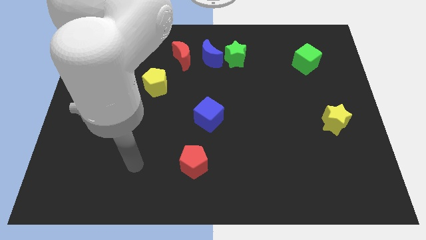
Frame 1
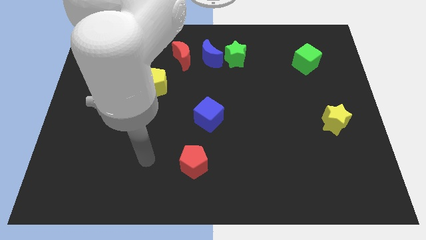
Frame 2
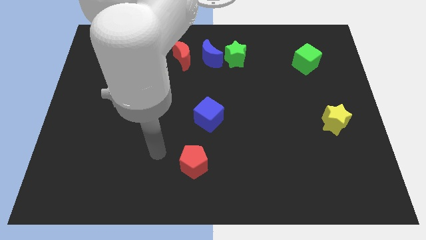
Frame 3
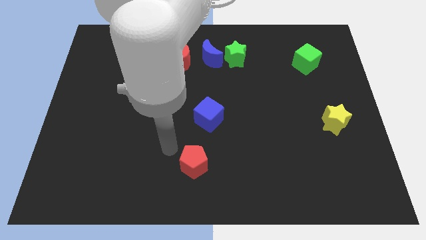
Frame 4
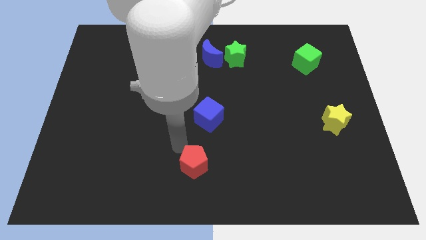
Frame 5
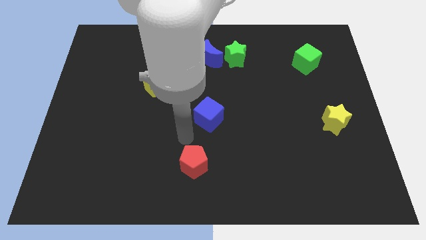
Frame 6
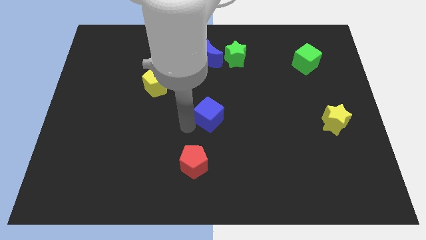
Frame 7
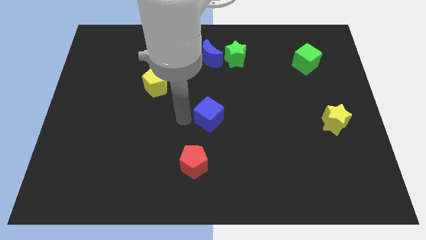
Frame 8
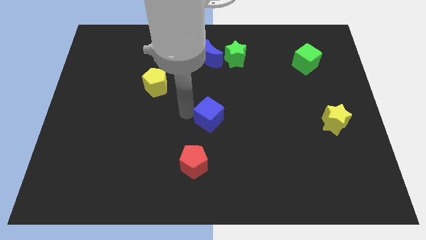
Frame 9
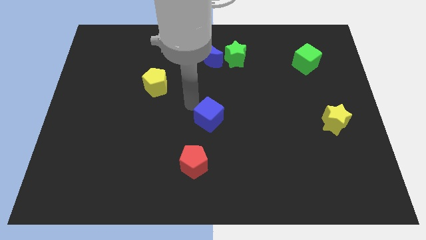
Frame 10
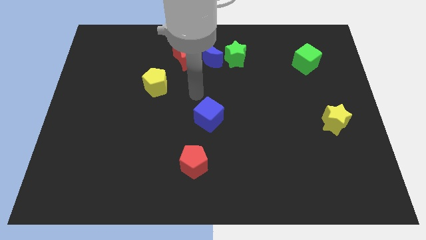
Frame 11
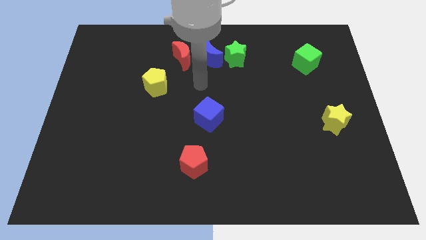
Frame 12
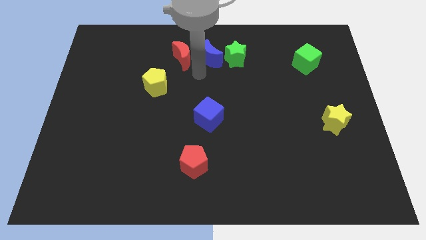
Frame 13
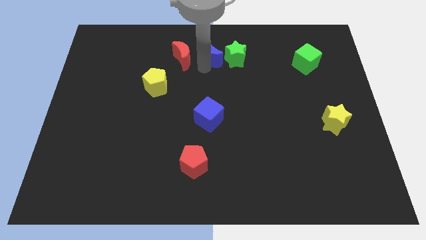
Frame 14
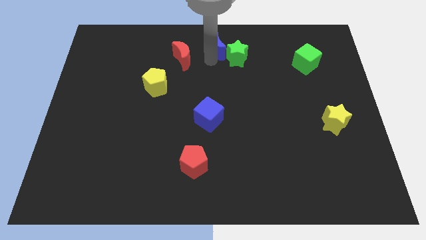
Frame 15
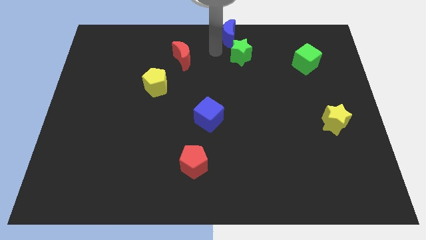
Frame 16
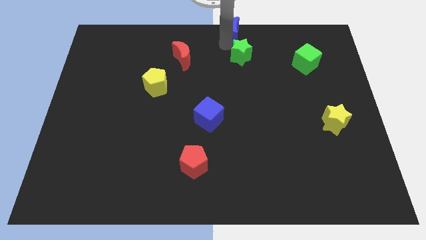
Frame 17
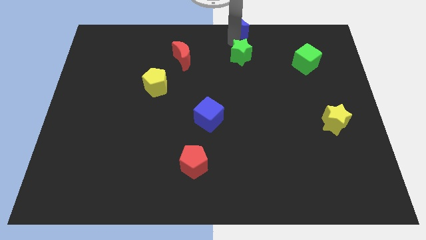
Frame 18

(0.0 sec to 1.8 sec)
move the green star away from the blue moon

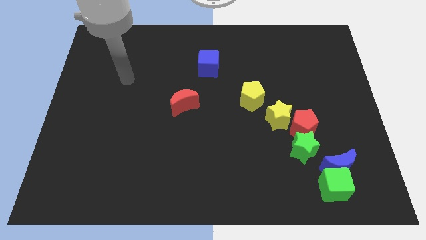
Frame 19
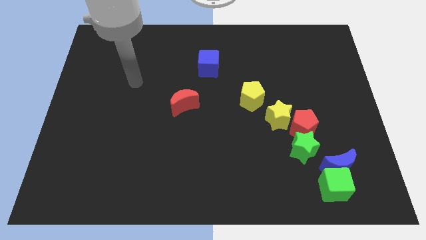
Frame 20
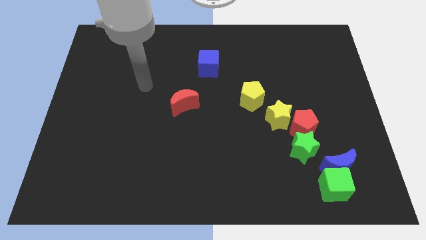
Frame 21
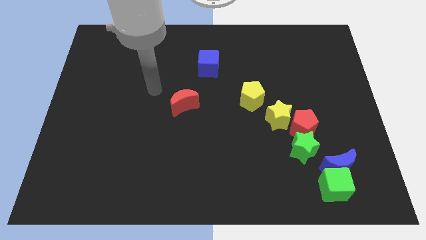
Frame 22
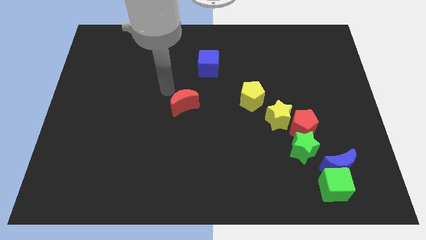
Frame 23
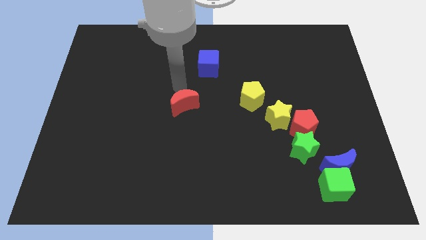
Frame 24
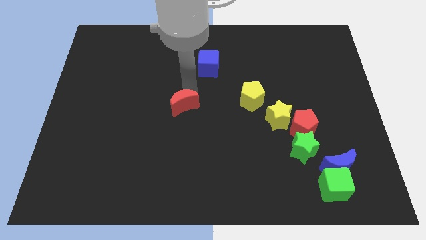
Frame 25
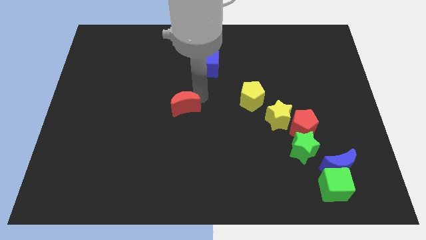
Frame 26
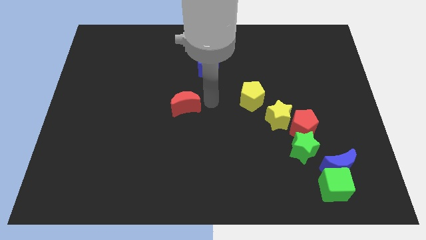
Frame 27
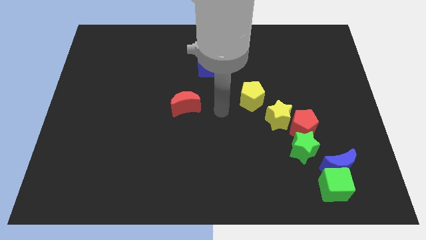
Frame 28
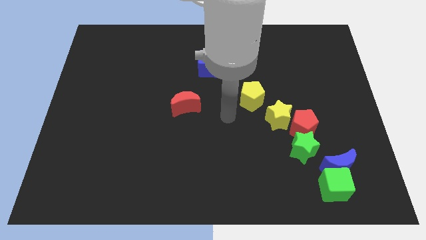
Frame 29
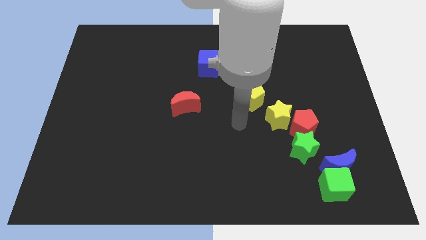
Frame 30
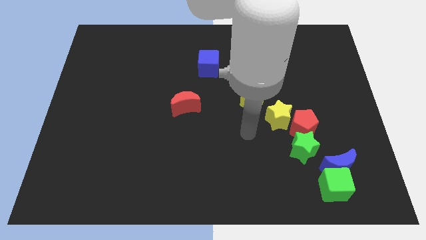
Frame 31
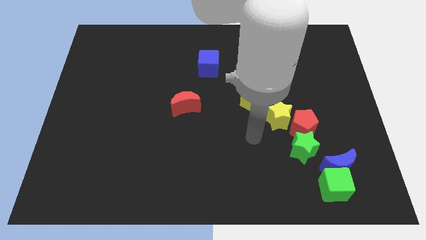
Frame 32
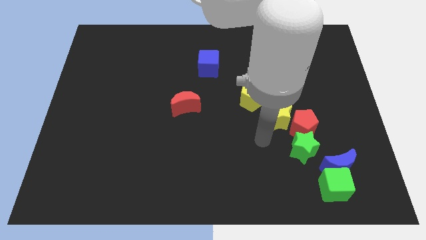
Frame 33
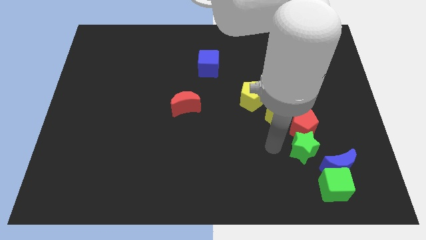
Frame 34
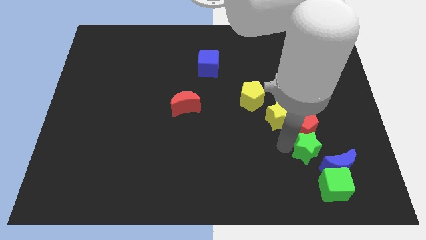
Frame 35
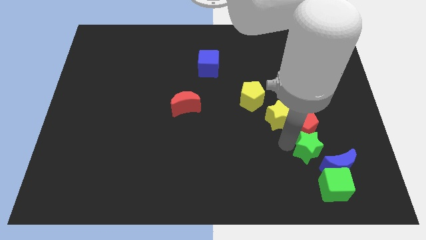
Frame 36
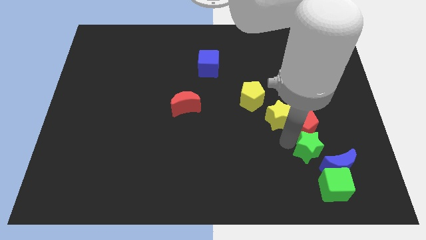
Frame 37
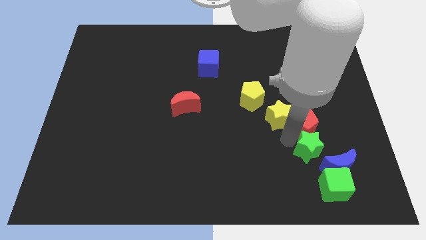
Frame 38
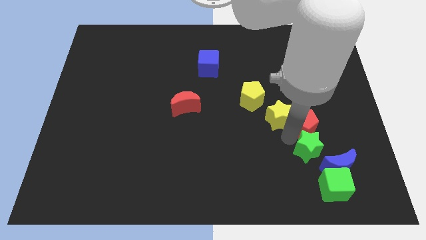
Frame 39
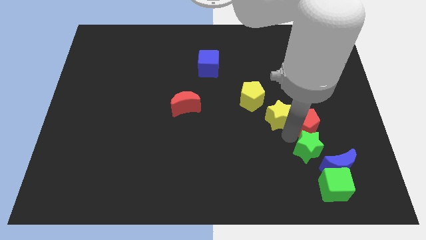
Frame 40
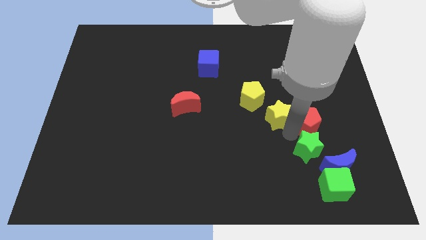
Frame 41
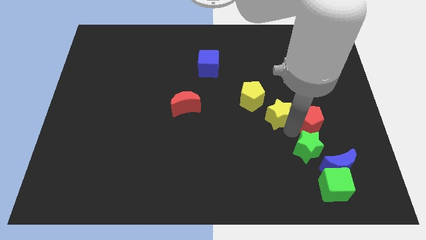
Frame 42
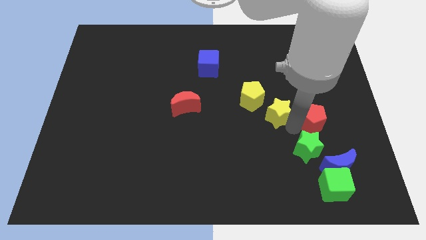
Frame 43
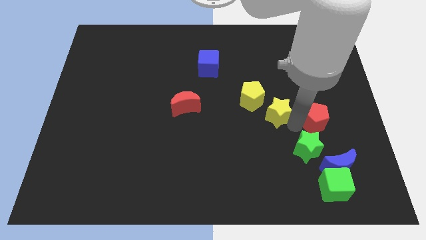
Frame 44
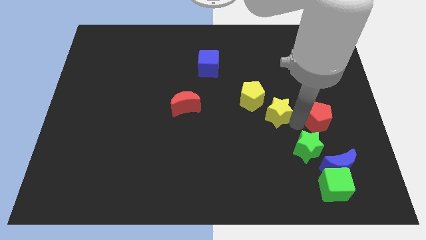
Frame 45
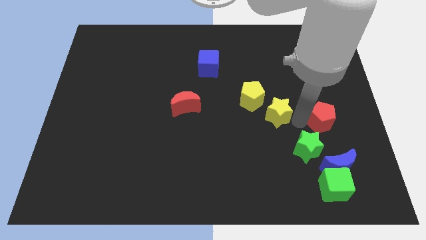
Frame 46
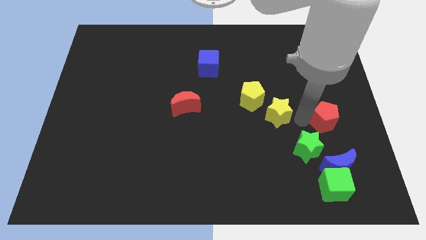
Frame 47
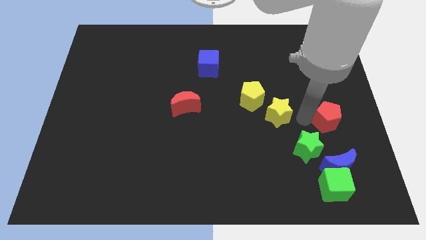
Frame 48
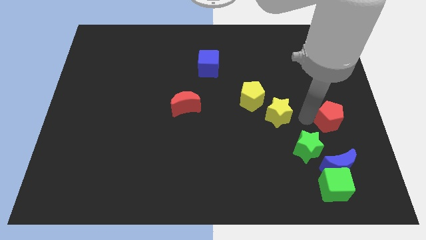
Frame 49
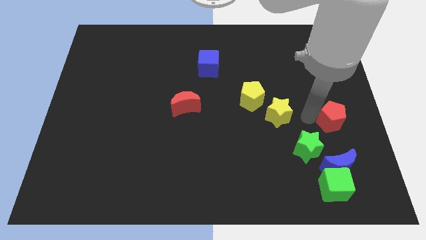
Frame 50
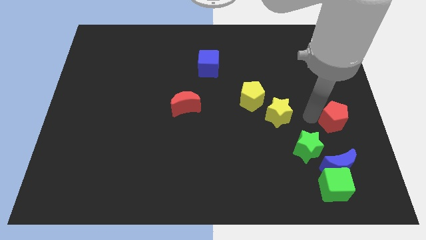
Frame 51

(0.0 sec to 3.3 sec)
separate the red pentagon from the yellow star and green star

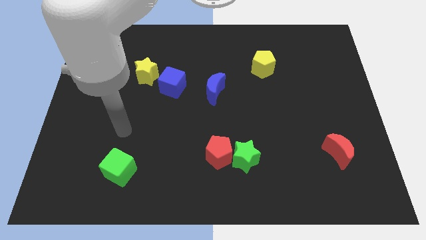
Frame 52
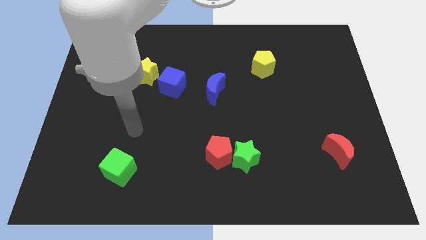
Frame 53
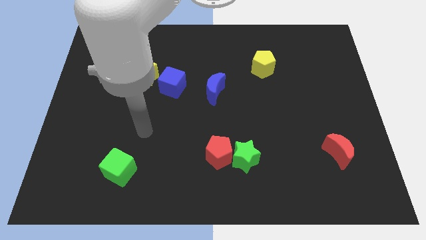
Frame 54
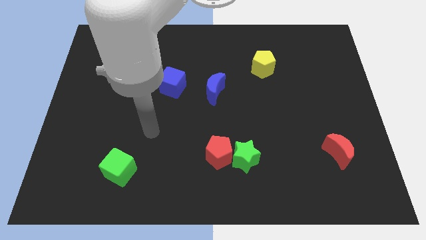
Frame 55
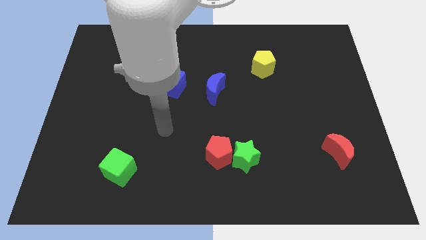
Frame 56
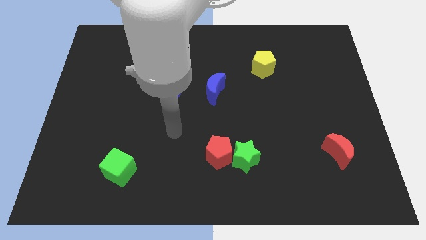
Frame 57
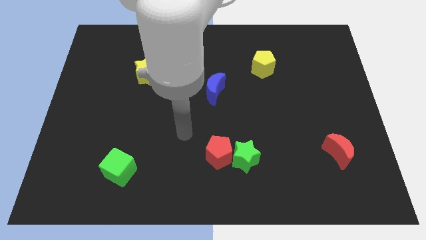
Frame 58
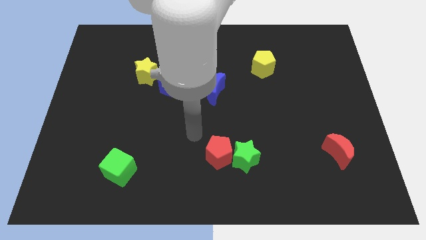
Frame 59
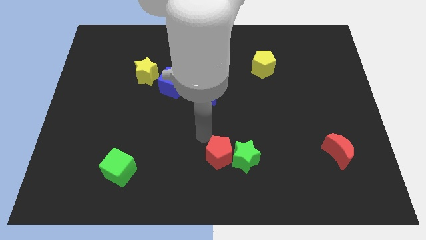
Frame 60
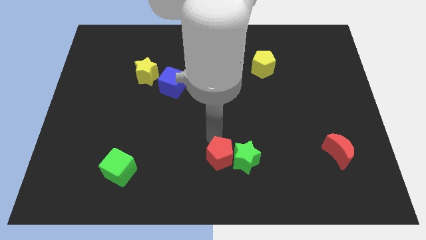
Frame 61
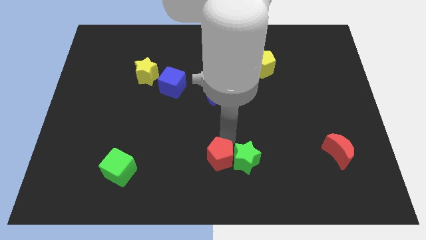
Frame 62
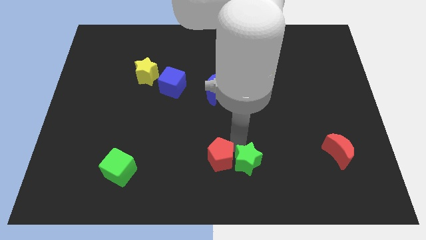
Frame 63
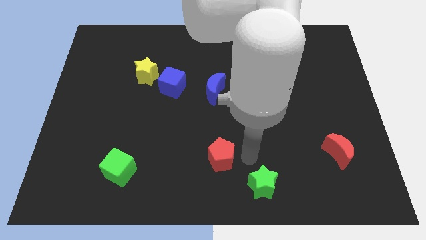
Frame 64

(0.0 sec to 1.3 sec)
pull the red pentagon apart from the green star

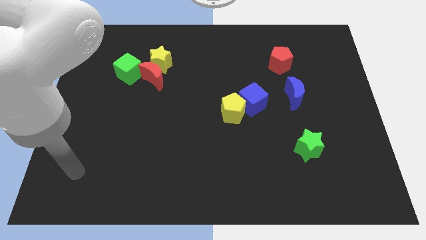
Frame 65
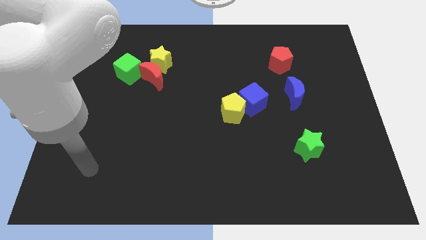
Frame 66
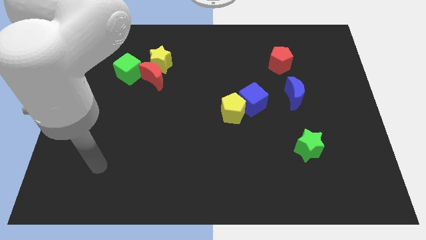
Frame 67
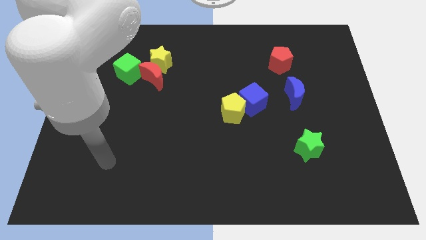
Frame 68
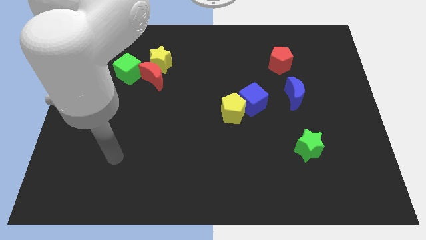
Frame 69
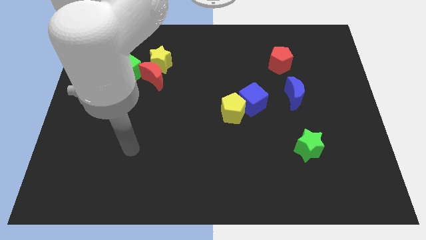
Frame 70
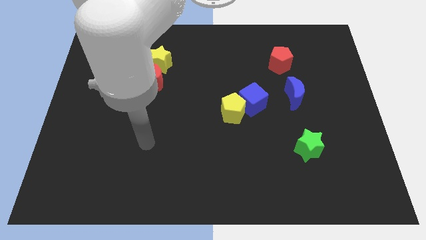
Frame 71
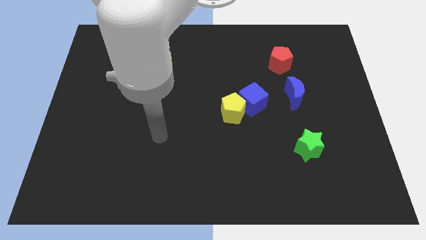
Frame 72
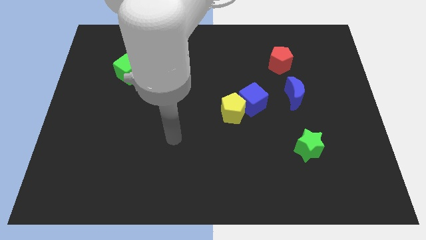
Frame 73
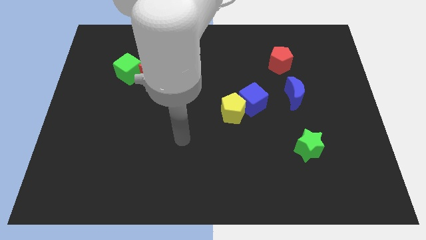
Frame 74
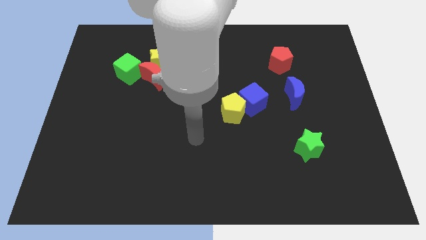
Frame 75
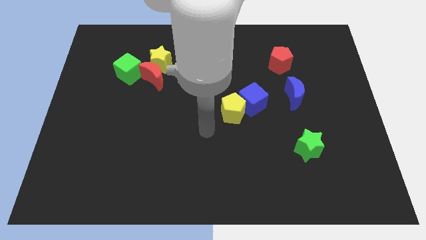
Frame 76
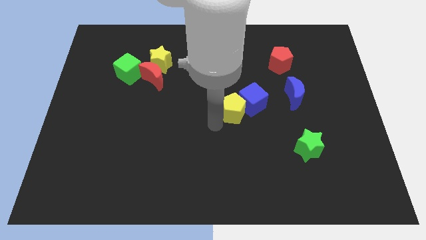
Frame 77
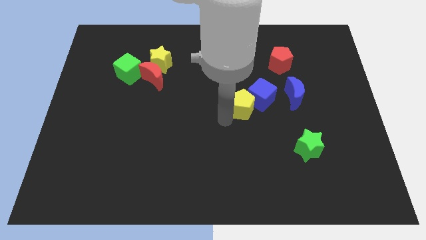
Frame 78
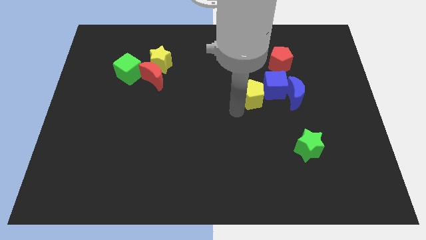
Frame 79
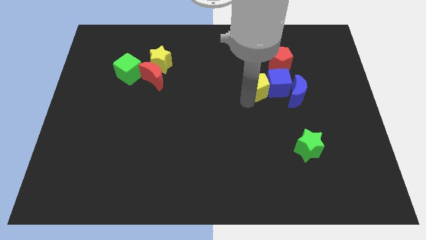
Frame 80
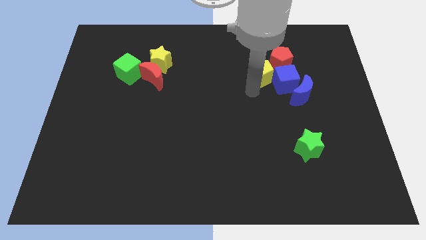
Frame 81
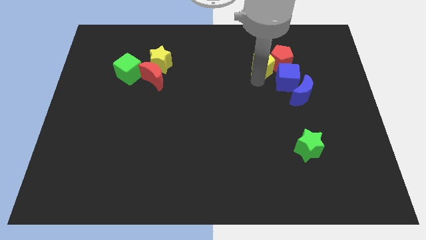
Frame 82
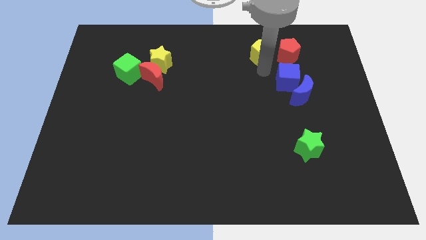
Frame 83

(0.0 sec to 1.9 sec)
move the blue cube away from the yellow pentagon

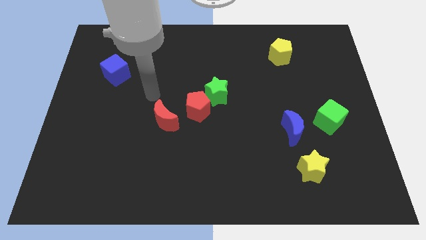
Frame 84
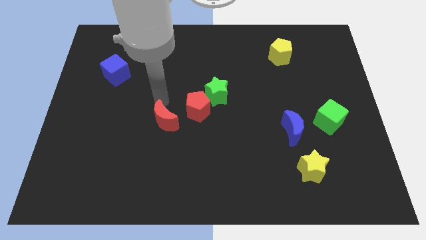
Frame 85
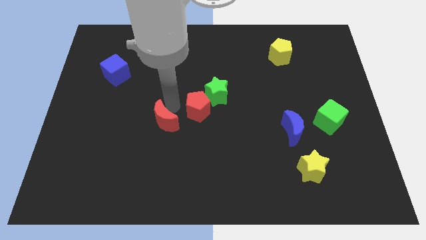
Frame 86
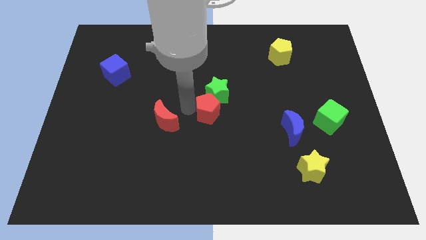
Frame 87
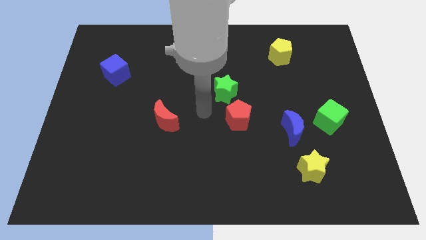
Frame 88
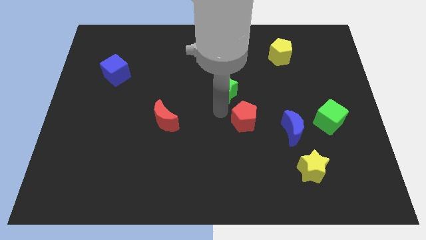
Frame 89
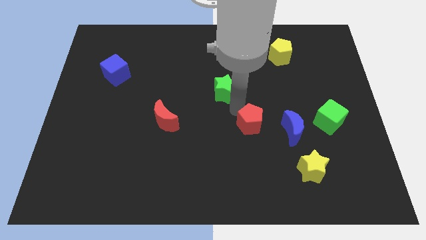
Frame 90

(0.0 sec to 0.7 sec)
move the green star away from the red pentagon

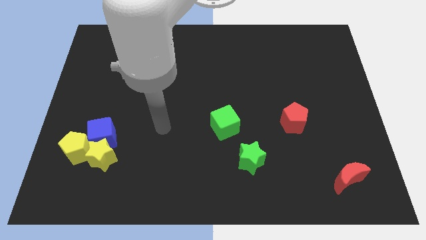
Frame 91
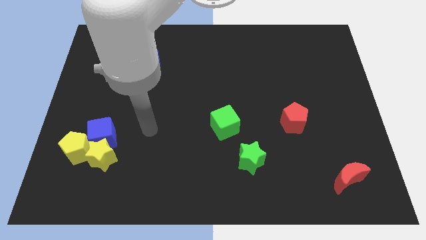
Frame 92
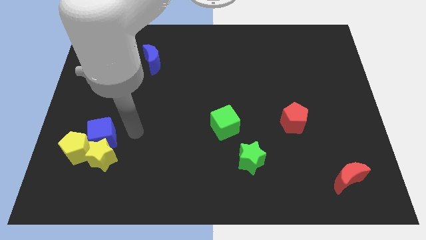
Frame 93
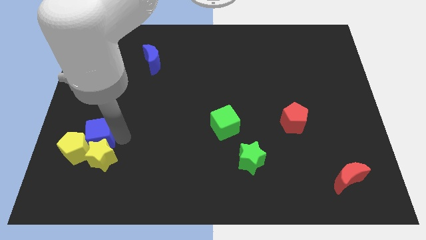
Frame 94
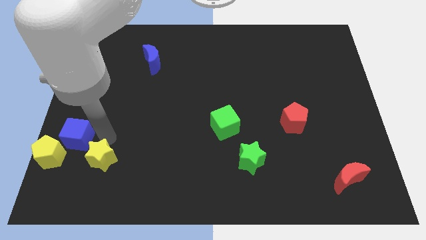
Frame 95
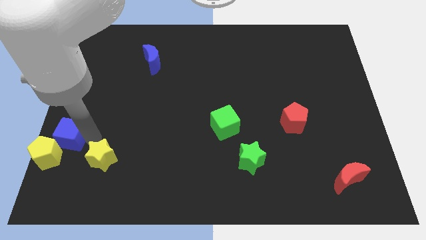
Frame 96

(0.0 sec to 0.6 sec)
move the yellow star away from the blue cube and yellow pentagon
